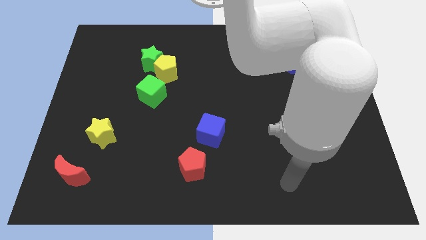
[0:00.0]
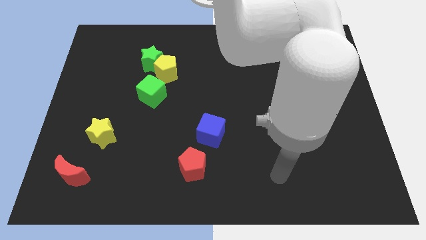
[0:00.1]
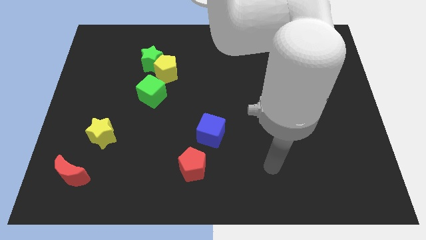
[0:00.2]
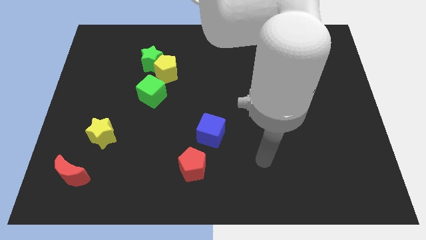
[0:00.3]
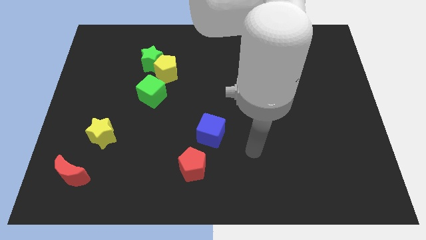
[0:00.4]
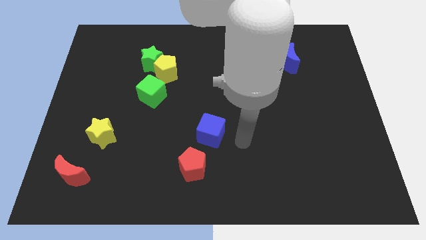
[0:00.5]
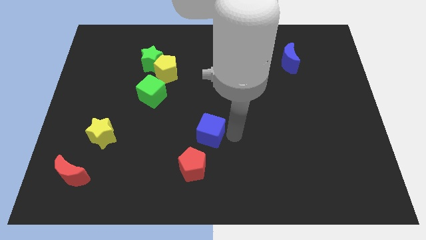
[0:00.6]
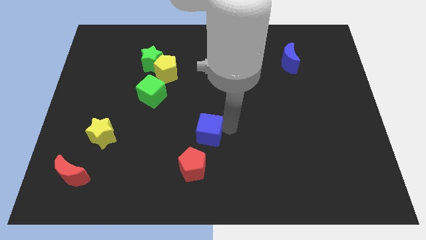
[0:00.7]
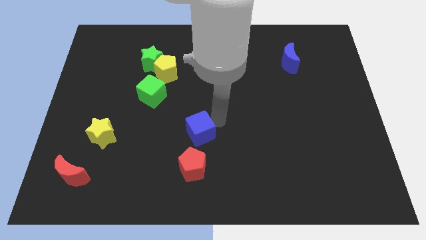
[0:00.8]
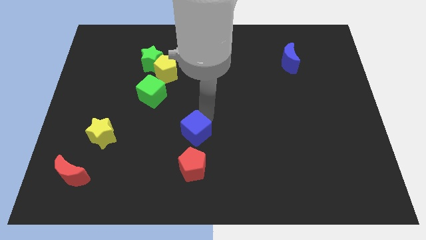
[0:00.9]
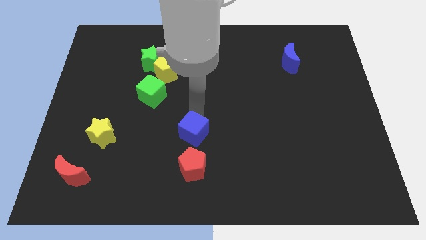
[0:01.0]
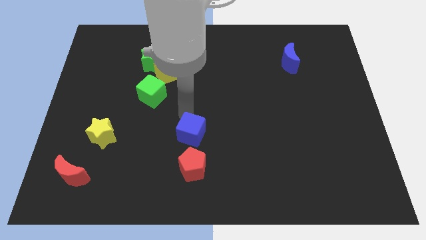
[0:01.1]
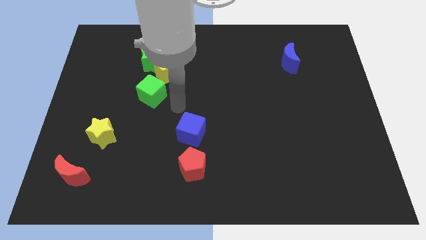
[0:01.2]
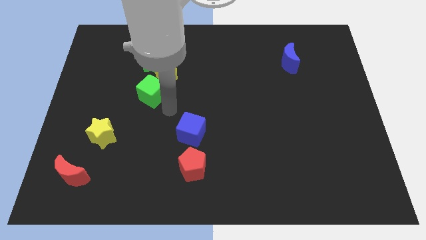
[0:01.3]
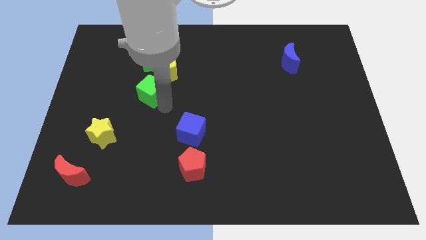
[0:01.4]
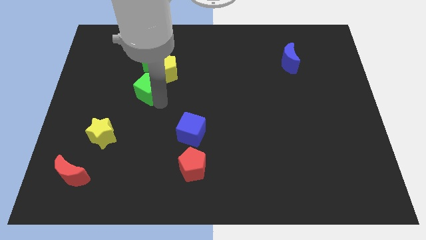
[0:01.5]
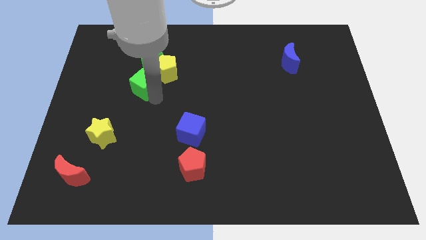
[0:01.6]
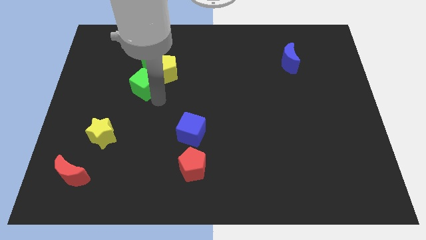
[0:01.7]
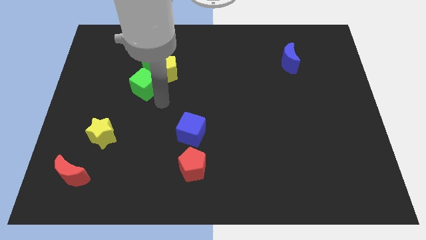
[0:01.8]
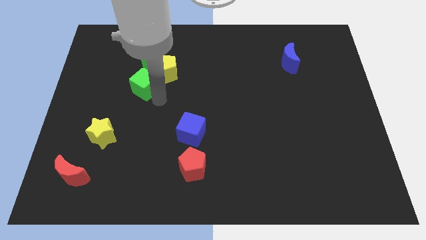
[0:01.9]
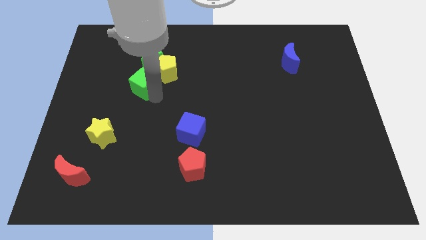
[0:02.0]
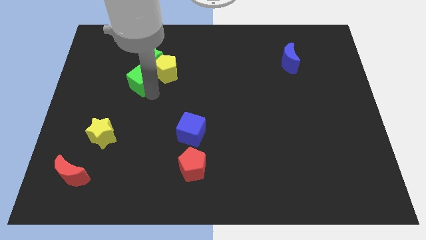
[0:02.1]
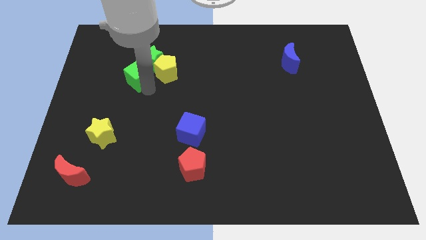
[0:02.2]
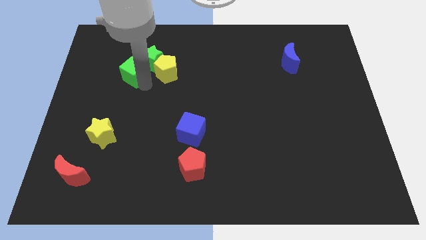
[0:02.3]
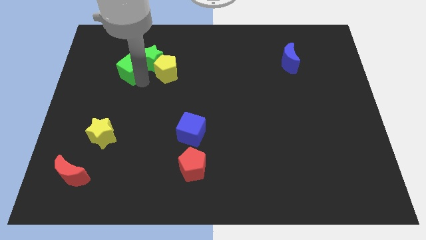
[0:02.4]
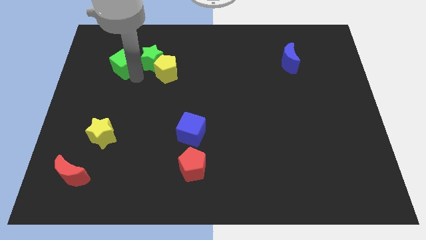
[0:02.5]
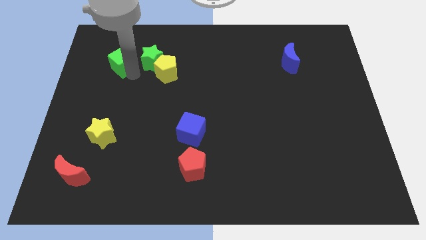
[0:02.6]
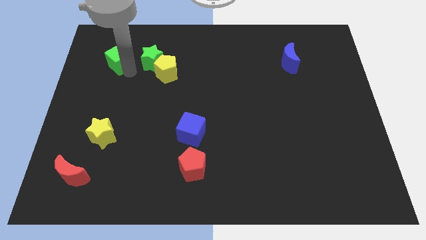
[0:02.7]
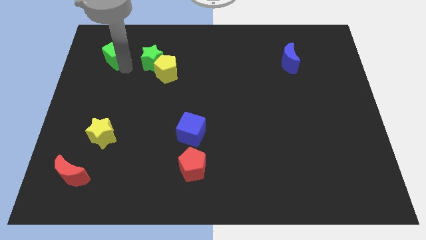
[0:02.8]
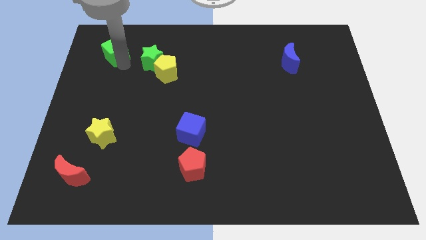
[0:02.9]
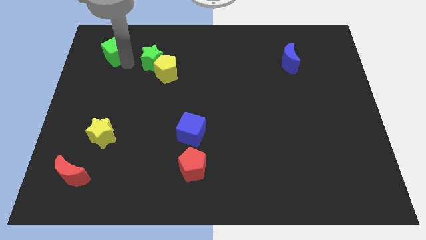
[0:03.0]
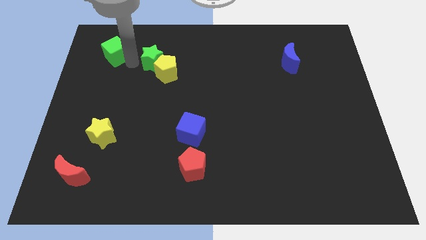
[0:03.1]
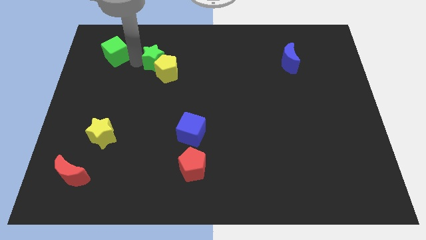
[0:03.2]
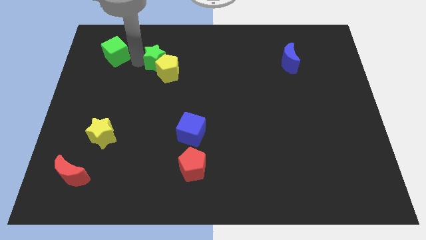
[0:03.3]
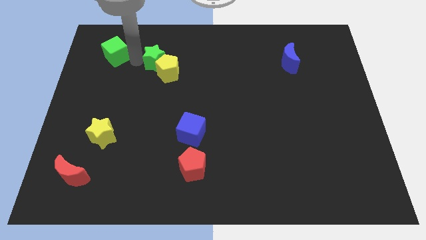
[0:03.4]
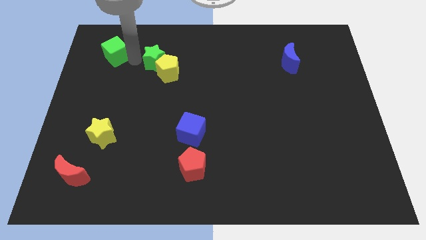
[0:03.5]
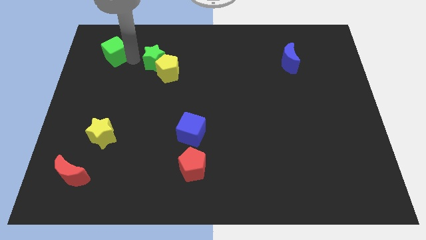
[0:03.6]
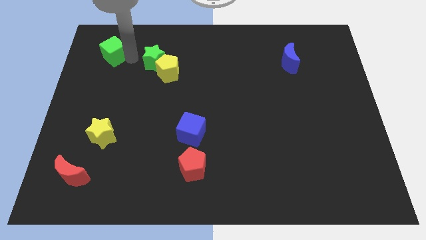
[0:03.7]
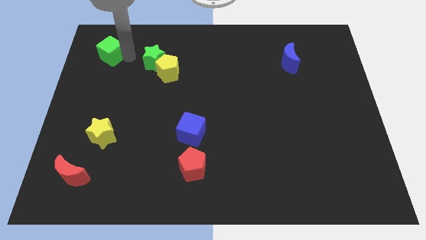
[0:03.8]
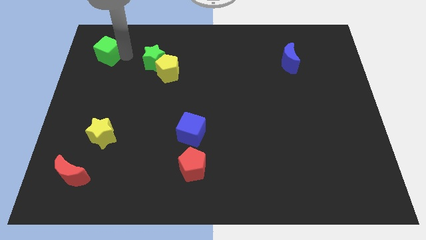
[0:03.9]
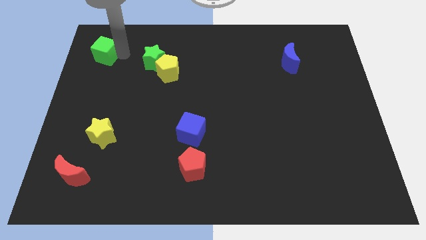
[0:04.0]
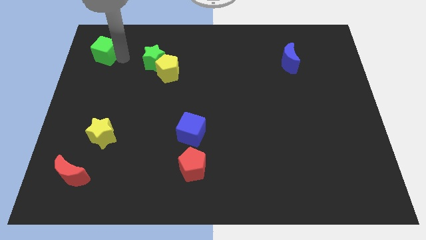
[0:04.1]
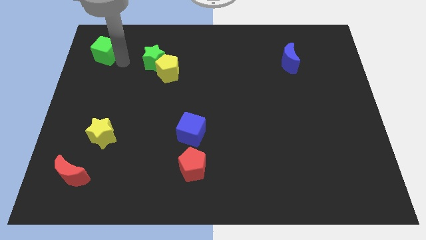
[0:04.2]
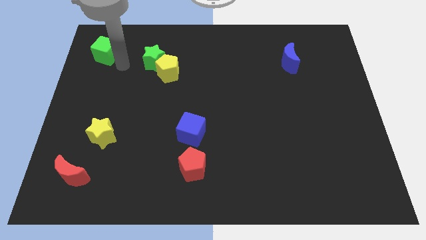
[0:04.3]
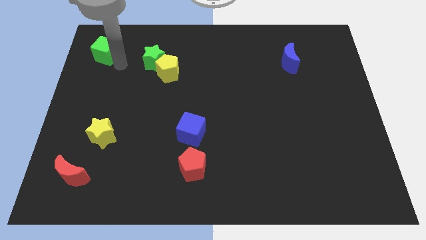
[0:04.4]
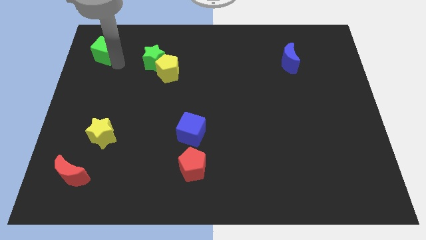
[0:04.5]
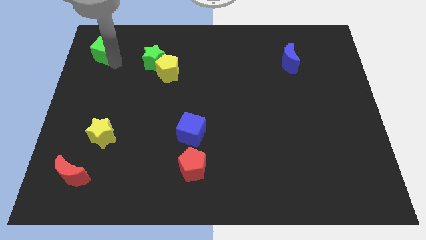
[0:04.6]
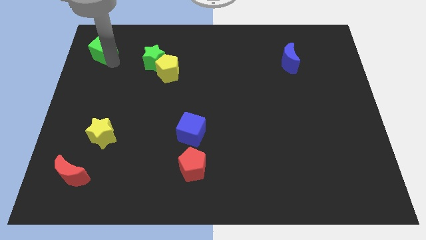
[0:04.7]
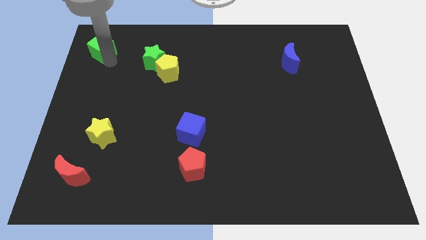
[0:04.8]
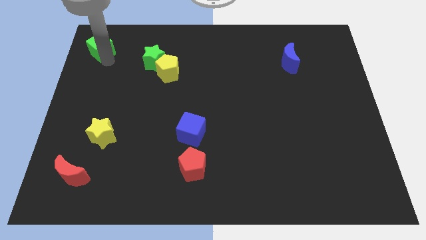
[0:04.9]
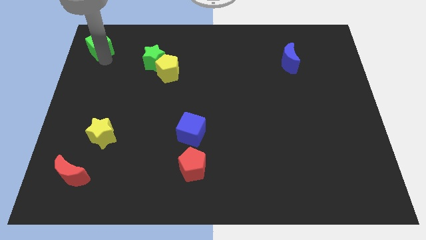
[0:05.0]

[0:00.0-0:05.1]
put the green cube to the upper left corner
